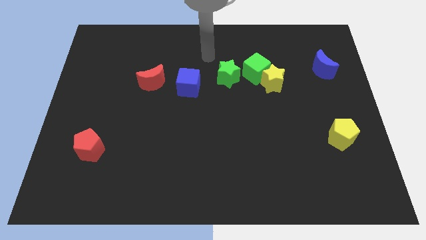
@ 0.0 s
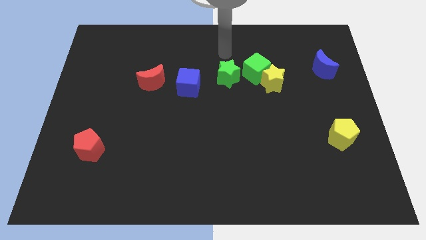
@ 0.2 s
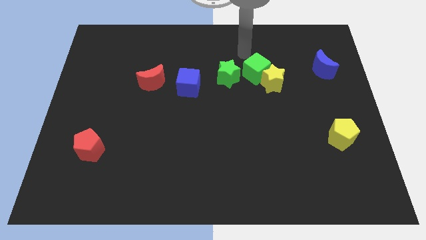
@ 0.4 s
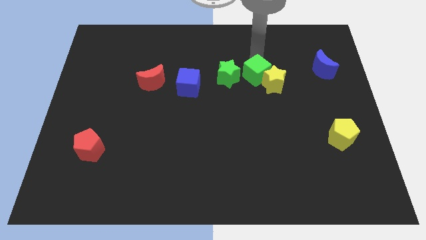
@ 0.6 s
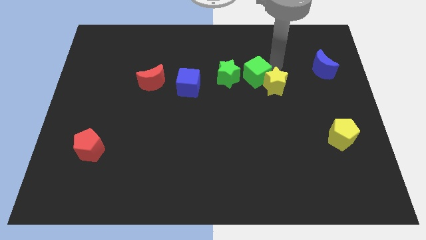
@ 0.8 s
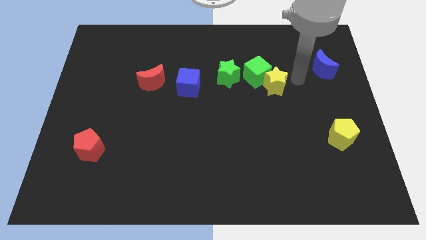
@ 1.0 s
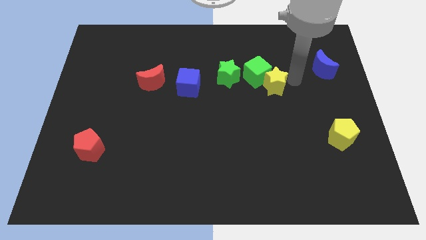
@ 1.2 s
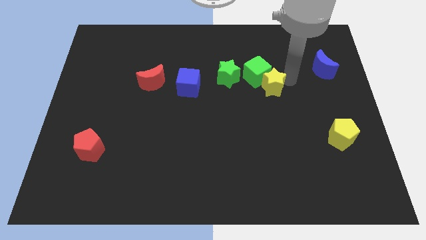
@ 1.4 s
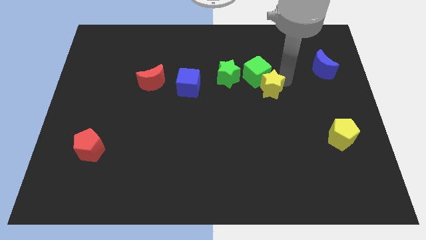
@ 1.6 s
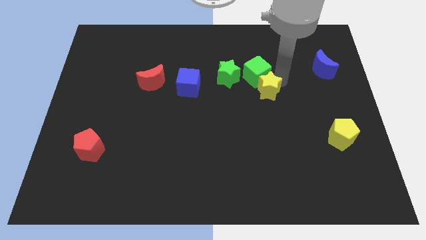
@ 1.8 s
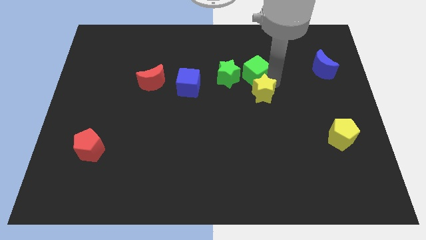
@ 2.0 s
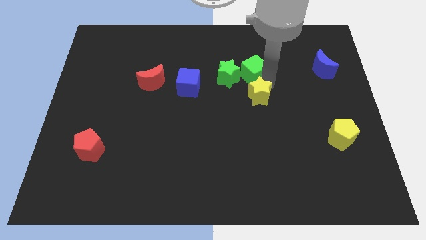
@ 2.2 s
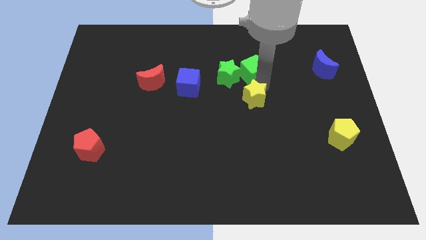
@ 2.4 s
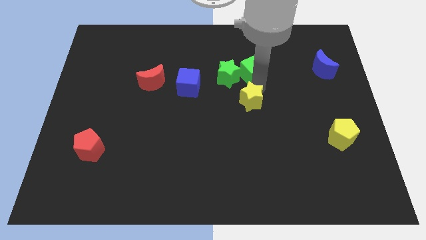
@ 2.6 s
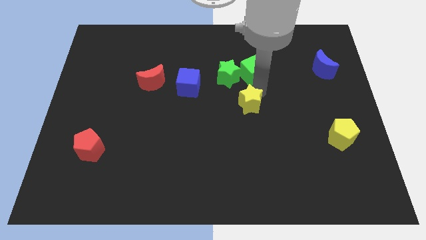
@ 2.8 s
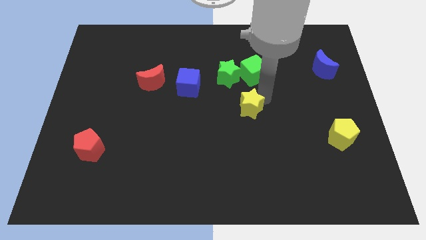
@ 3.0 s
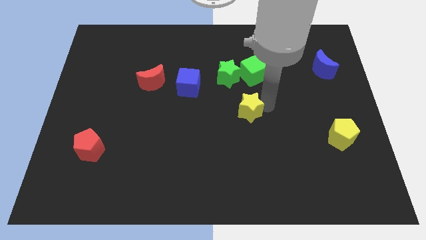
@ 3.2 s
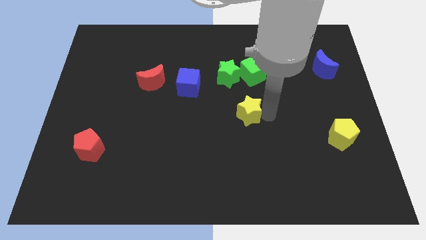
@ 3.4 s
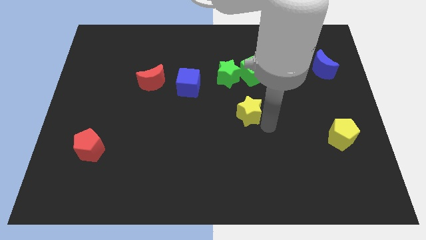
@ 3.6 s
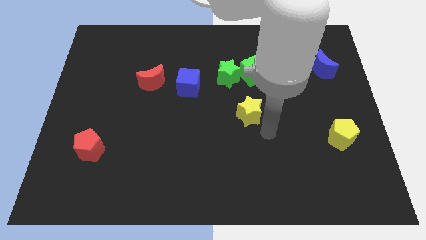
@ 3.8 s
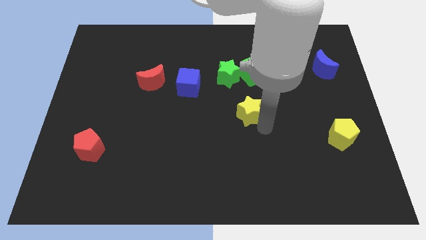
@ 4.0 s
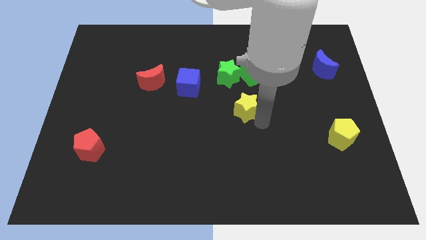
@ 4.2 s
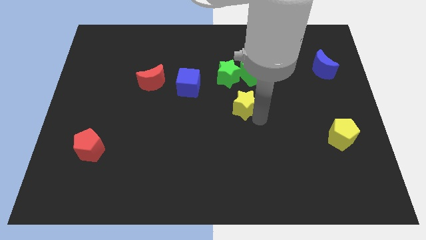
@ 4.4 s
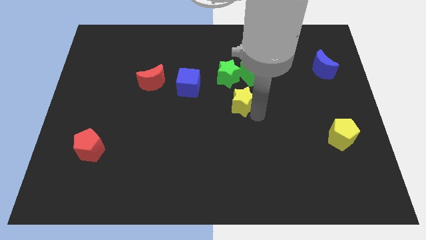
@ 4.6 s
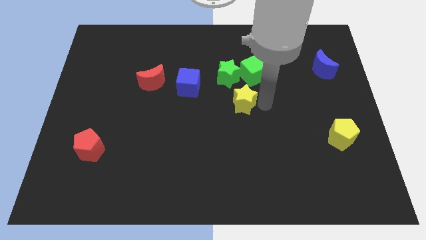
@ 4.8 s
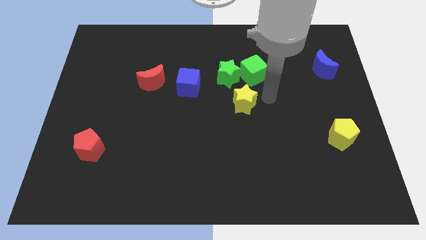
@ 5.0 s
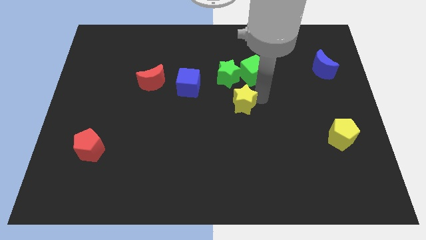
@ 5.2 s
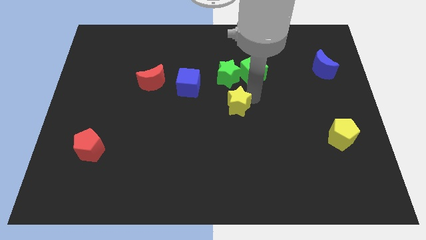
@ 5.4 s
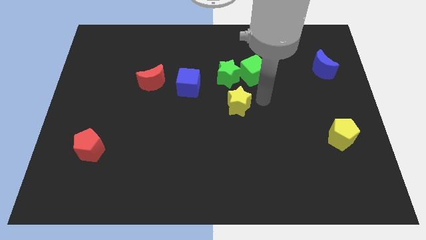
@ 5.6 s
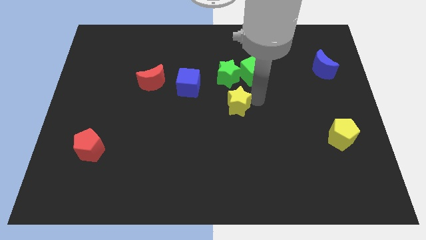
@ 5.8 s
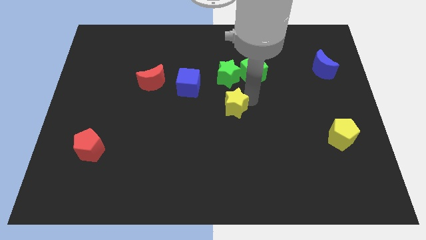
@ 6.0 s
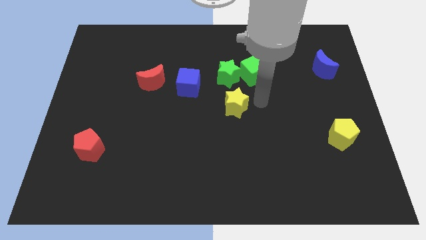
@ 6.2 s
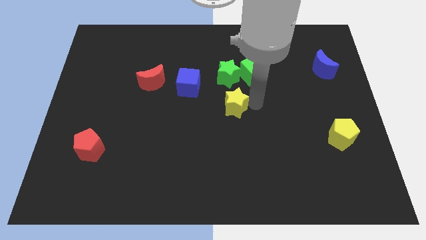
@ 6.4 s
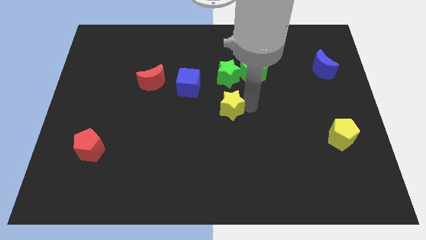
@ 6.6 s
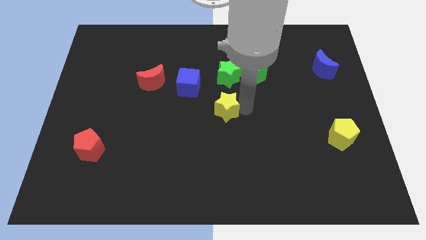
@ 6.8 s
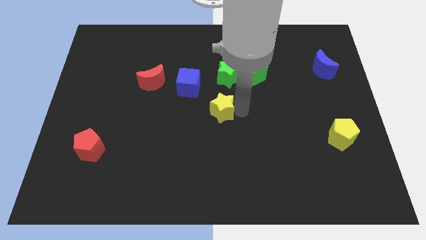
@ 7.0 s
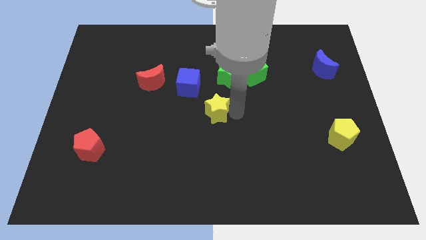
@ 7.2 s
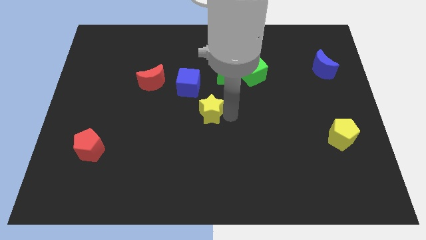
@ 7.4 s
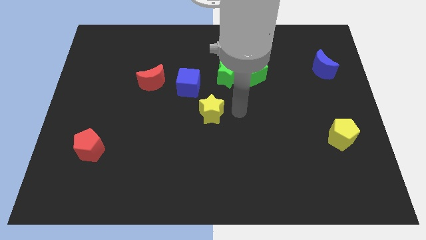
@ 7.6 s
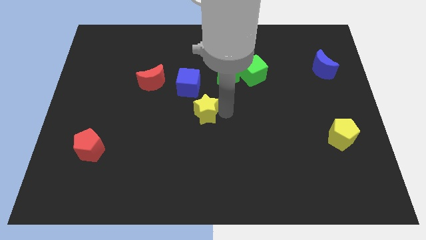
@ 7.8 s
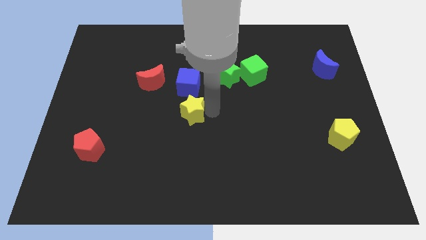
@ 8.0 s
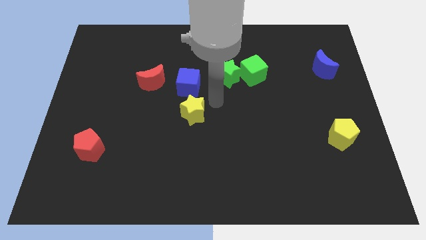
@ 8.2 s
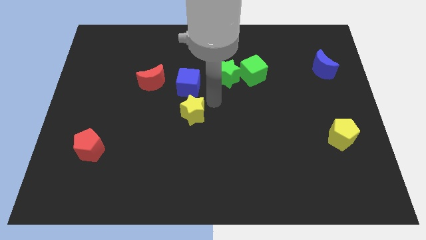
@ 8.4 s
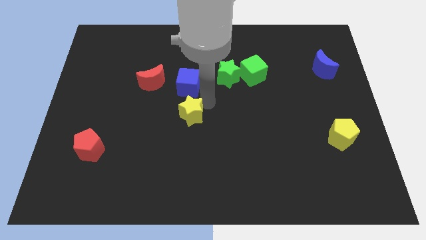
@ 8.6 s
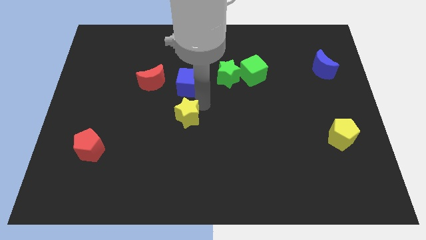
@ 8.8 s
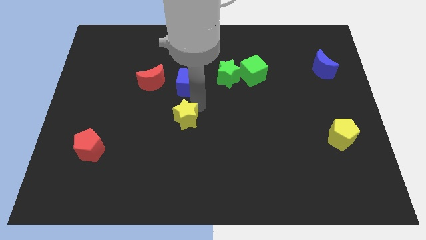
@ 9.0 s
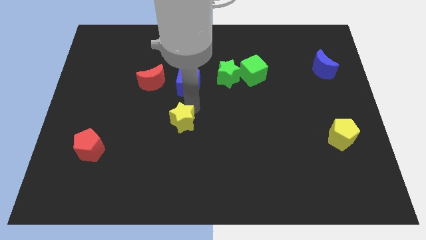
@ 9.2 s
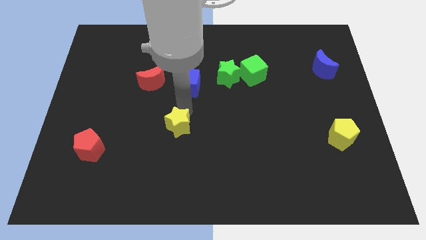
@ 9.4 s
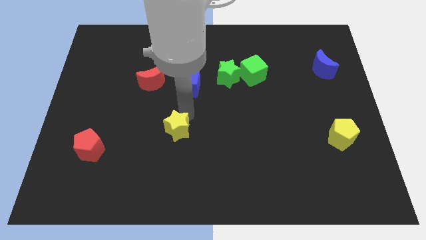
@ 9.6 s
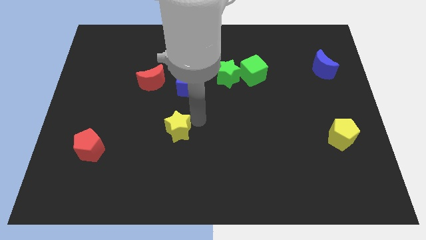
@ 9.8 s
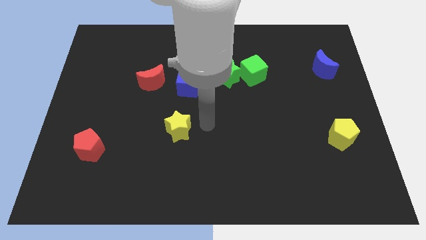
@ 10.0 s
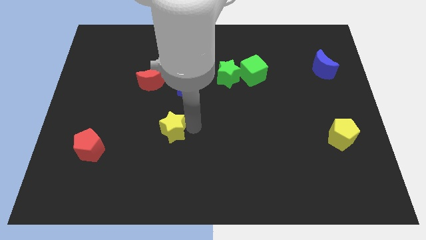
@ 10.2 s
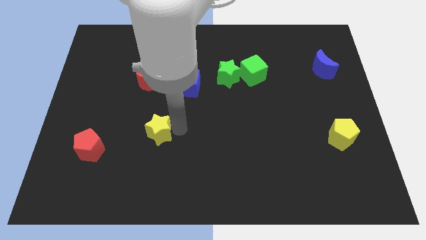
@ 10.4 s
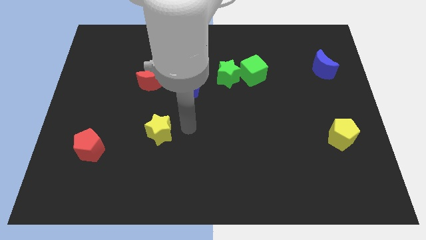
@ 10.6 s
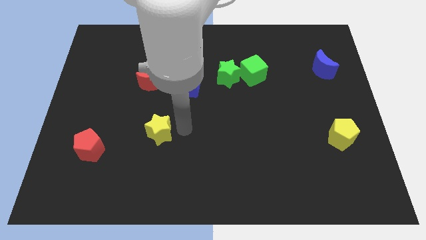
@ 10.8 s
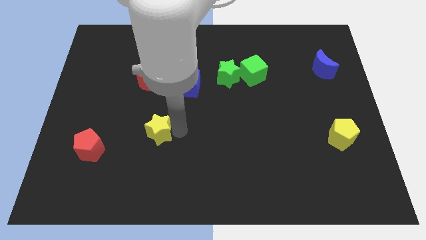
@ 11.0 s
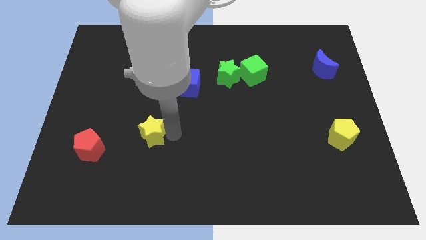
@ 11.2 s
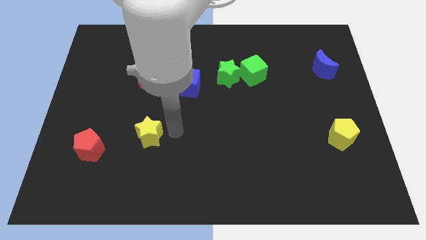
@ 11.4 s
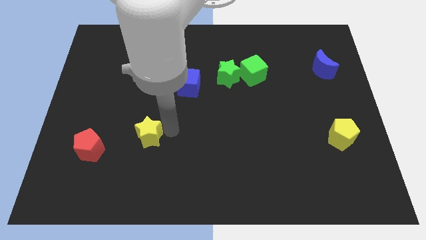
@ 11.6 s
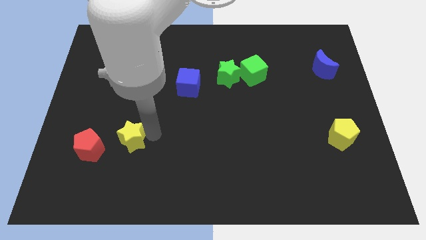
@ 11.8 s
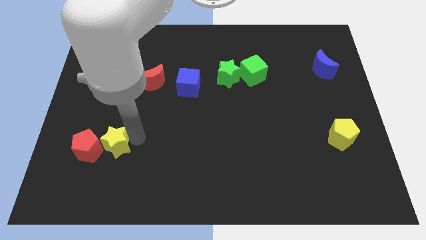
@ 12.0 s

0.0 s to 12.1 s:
push the yellow star close to the red pentagon

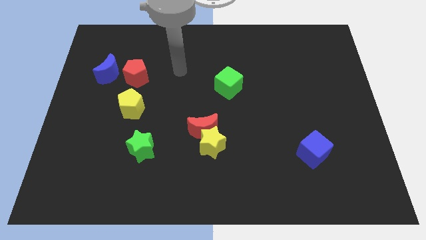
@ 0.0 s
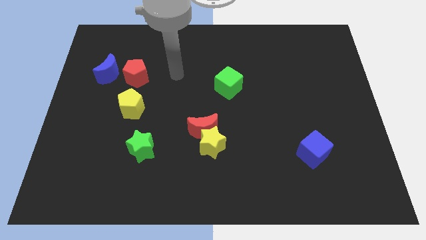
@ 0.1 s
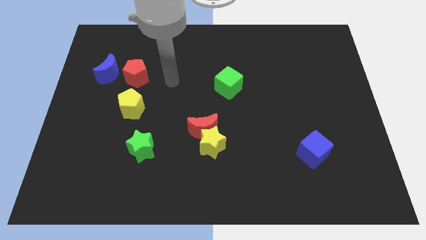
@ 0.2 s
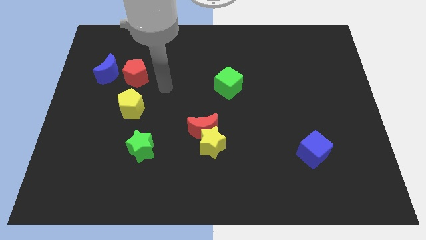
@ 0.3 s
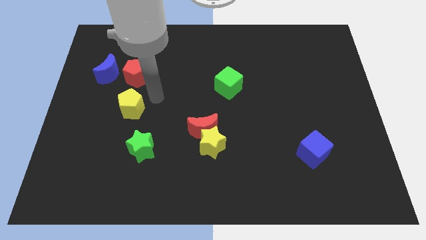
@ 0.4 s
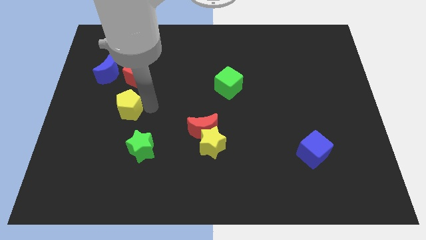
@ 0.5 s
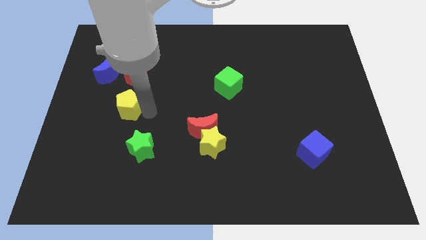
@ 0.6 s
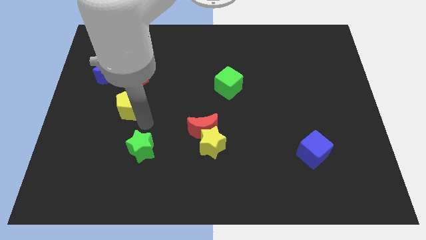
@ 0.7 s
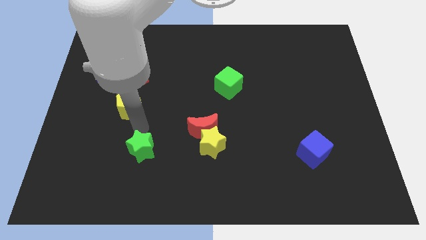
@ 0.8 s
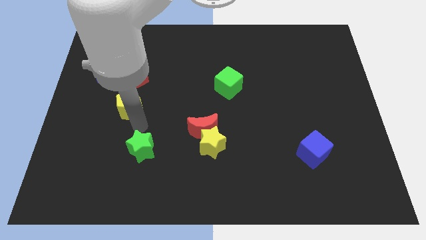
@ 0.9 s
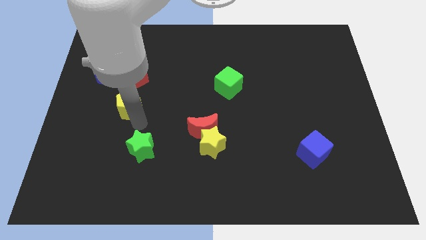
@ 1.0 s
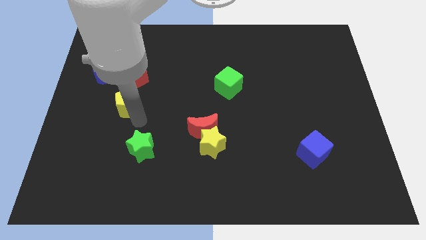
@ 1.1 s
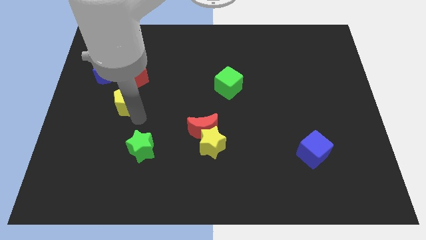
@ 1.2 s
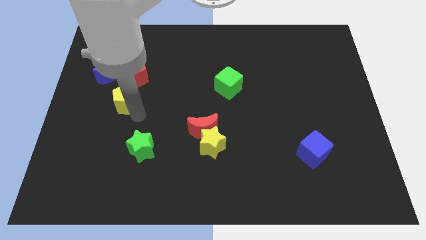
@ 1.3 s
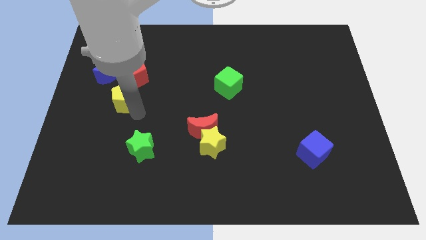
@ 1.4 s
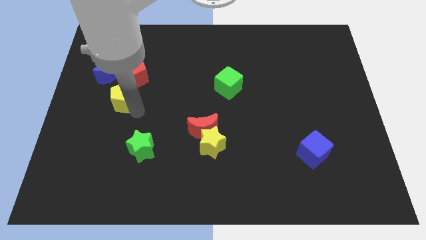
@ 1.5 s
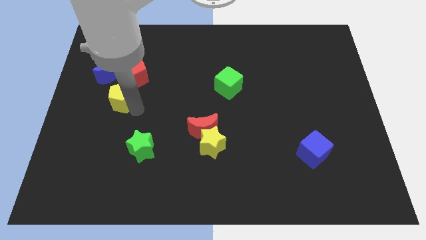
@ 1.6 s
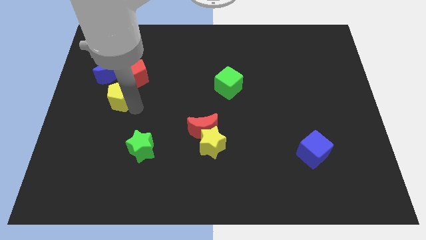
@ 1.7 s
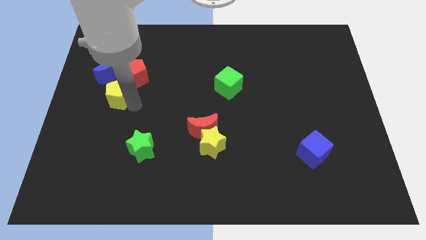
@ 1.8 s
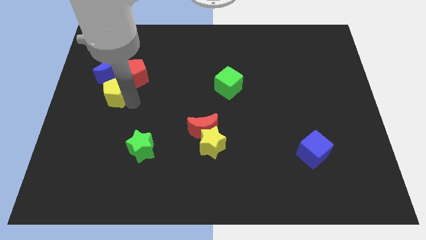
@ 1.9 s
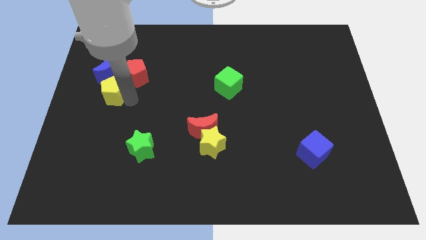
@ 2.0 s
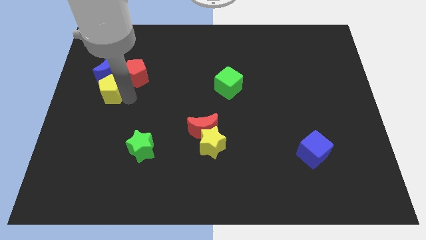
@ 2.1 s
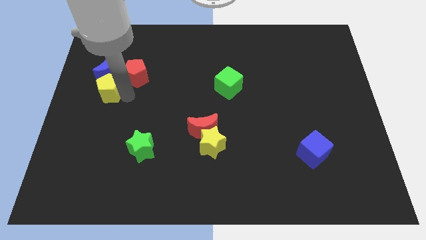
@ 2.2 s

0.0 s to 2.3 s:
slide the yellow pentagon close to the blue moon
